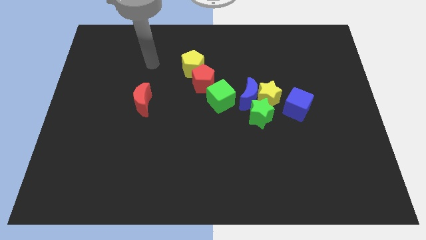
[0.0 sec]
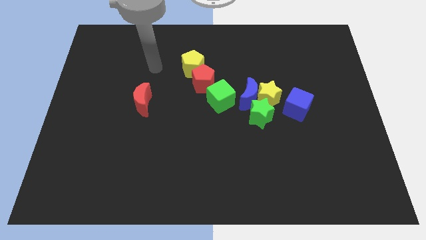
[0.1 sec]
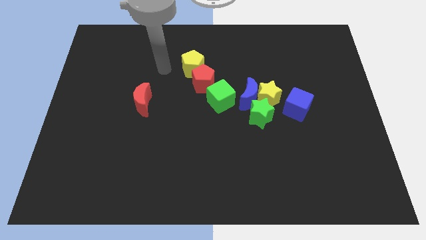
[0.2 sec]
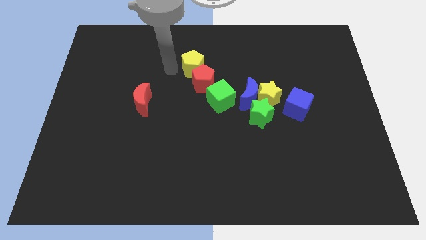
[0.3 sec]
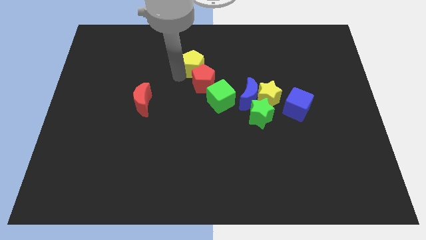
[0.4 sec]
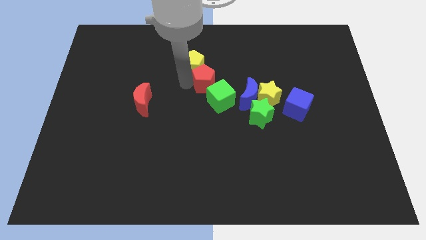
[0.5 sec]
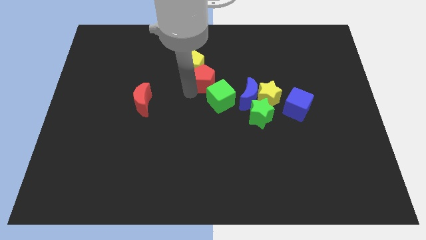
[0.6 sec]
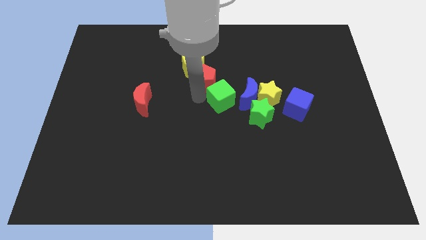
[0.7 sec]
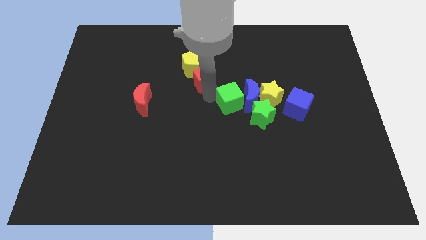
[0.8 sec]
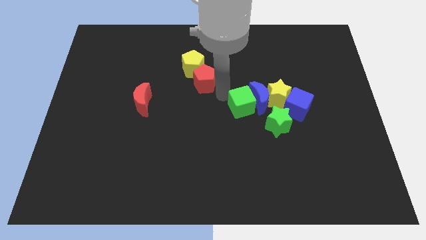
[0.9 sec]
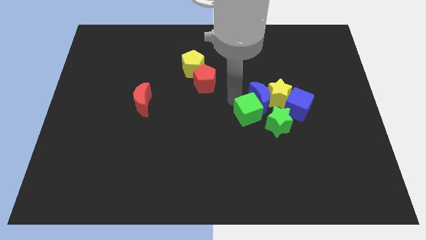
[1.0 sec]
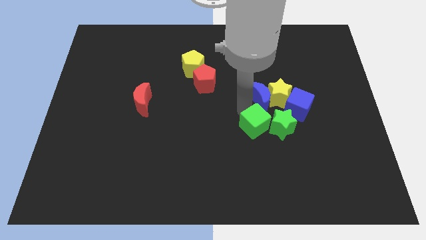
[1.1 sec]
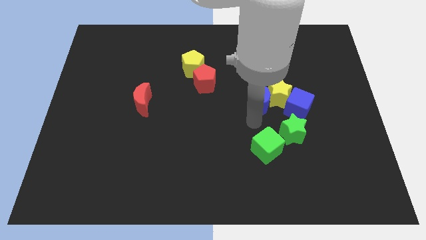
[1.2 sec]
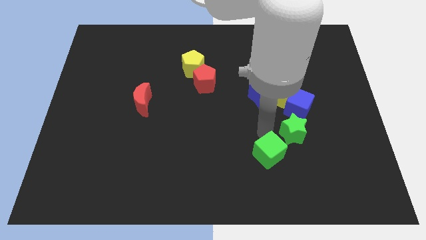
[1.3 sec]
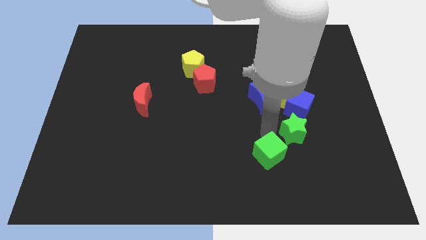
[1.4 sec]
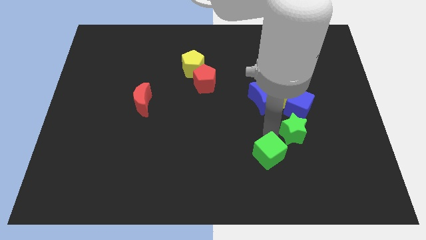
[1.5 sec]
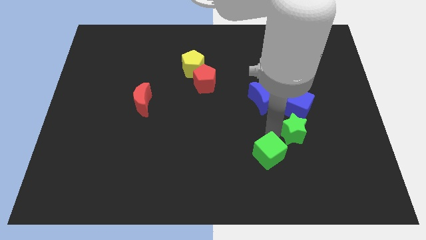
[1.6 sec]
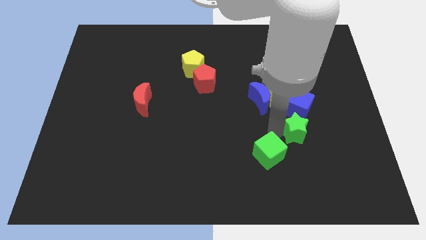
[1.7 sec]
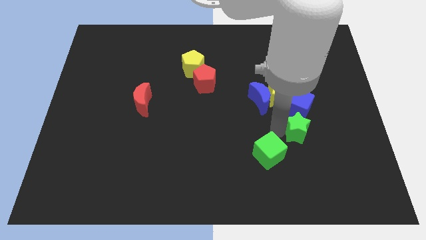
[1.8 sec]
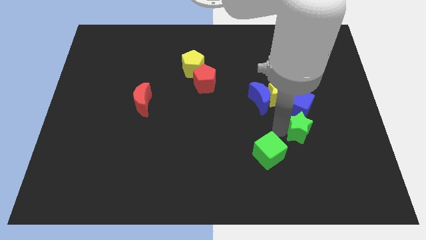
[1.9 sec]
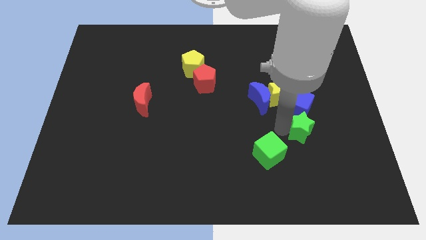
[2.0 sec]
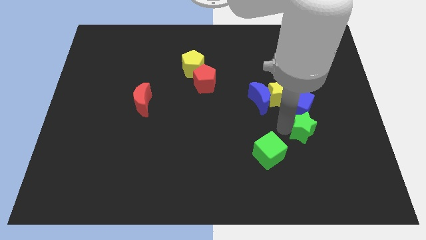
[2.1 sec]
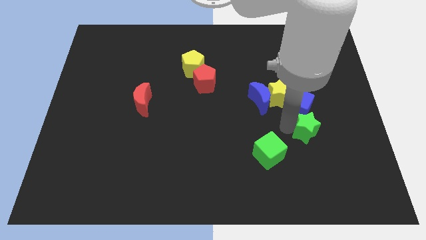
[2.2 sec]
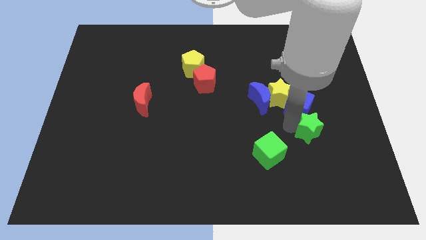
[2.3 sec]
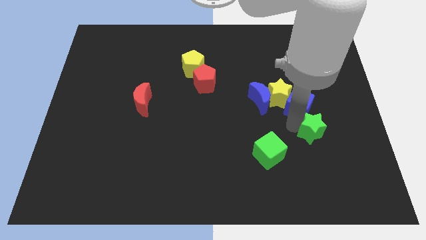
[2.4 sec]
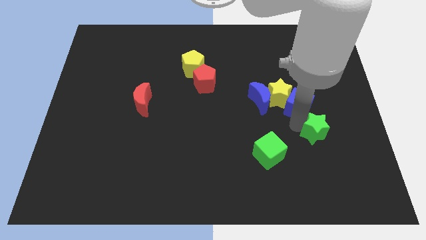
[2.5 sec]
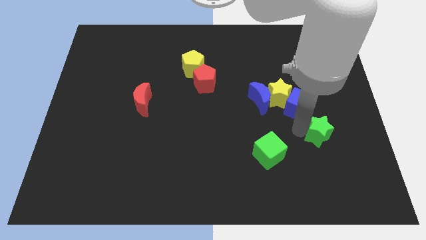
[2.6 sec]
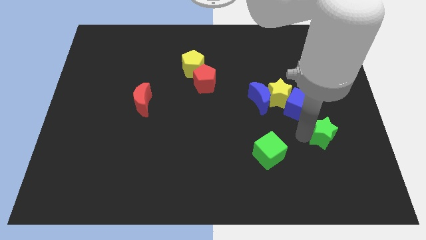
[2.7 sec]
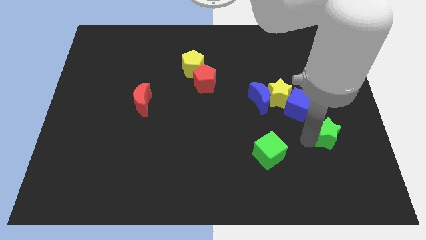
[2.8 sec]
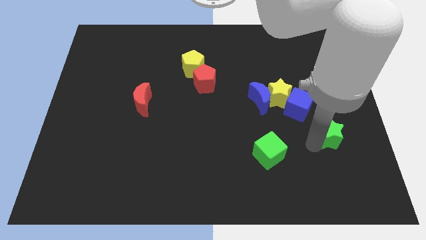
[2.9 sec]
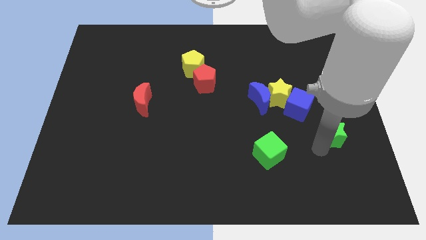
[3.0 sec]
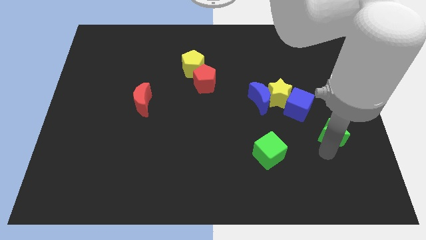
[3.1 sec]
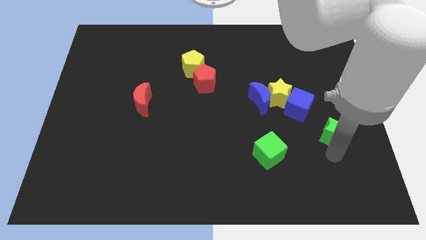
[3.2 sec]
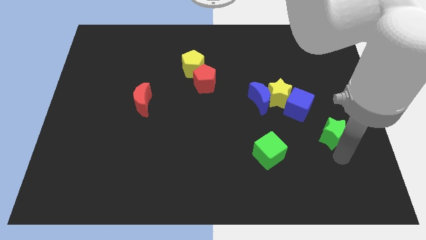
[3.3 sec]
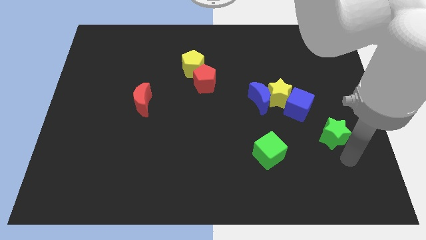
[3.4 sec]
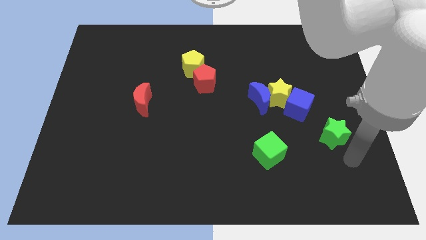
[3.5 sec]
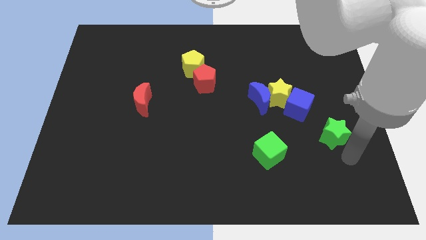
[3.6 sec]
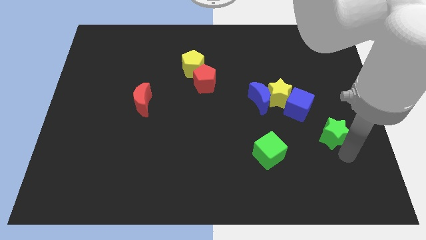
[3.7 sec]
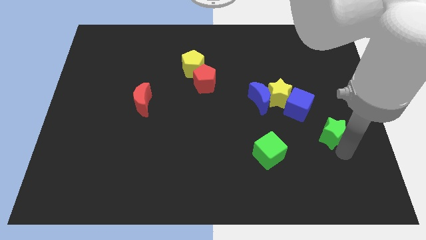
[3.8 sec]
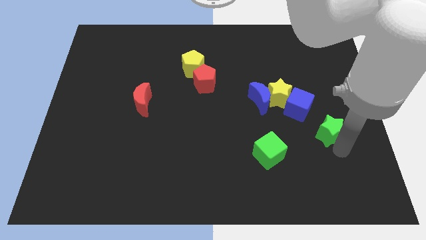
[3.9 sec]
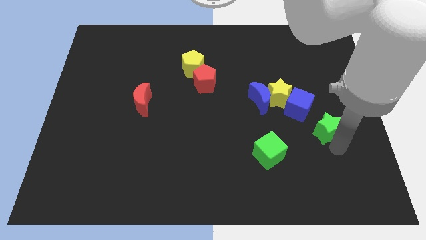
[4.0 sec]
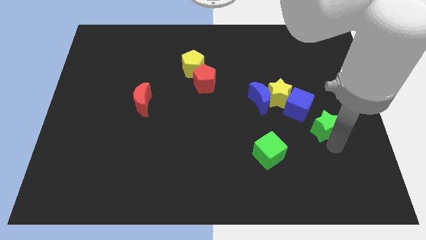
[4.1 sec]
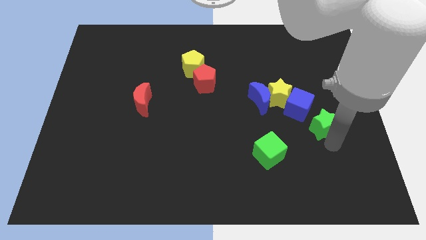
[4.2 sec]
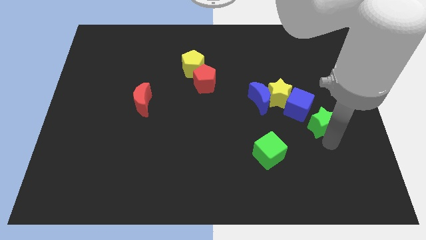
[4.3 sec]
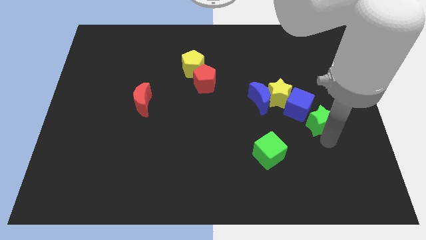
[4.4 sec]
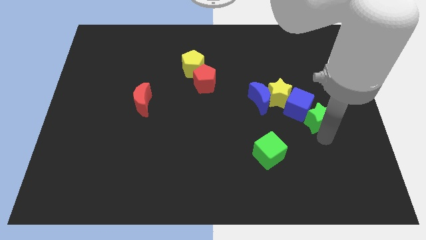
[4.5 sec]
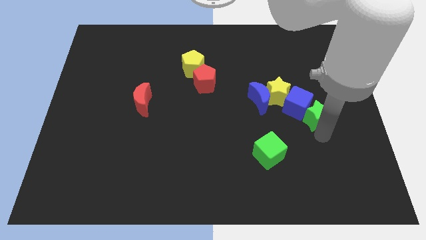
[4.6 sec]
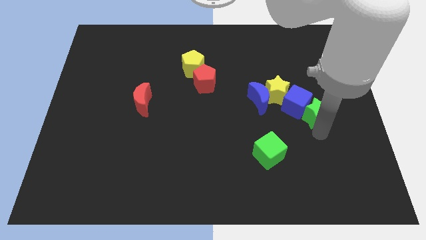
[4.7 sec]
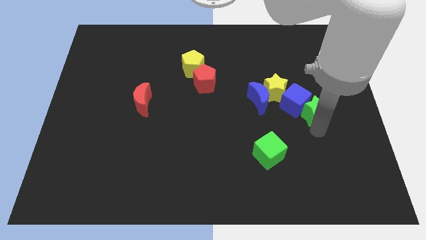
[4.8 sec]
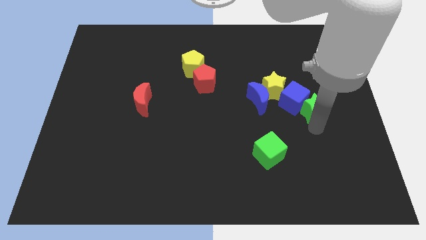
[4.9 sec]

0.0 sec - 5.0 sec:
slightly slide the green star diagonally up and to the right

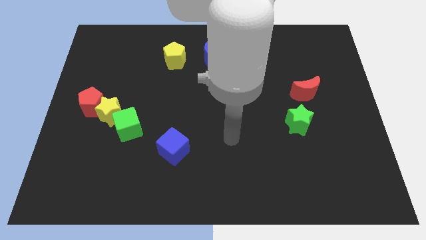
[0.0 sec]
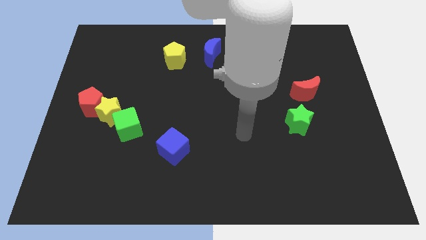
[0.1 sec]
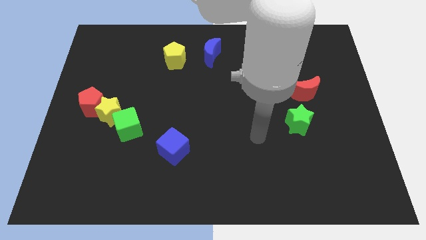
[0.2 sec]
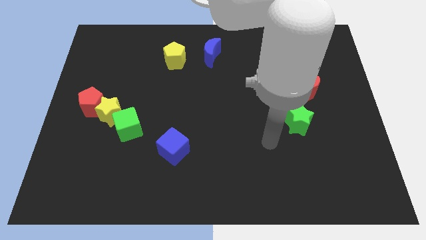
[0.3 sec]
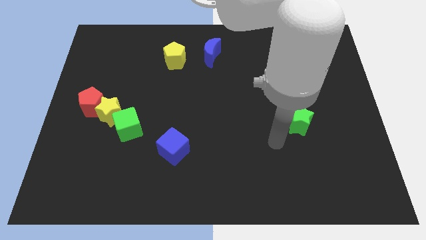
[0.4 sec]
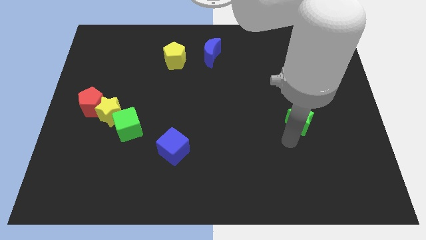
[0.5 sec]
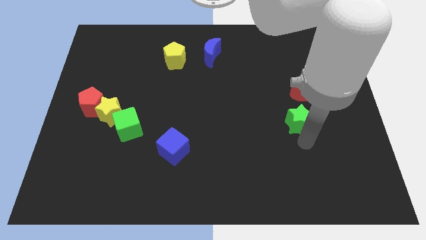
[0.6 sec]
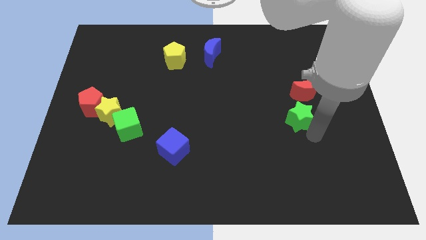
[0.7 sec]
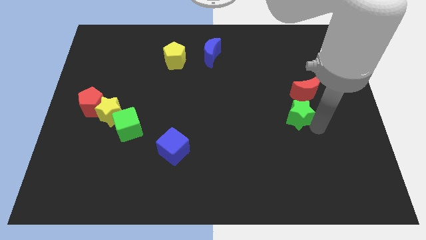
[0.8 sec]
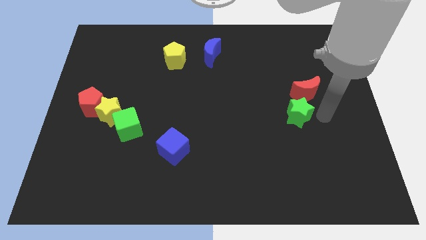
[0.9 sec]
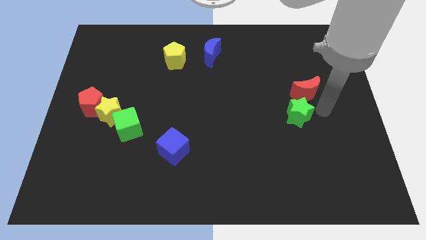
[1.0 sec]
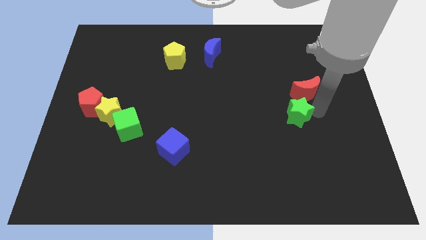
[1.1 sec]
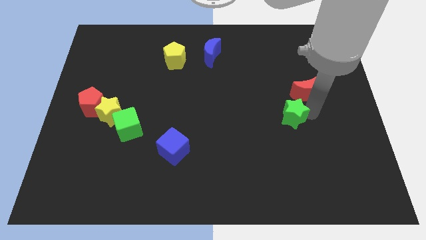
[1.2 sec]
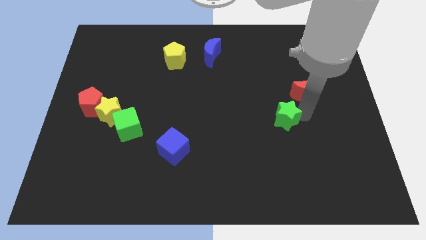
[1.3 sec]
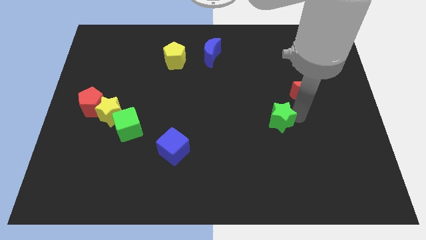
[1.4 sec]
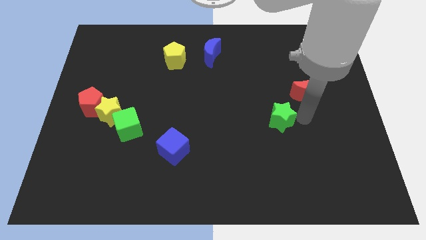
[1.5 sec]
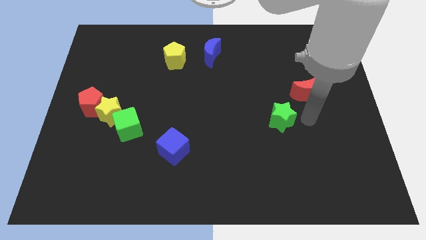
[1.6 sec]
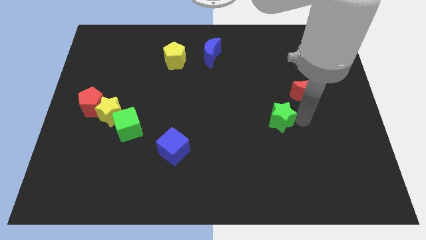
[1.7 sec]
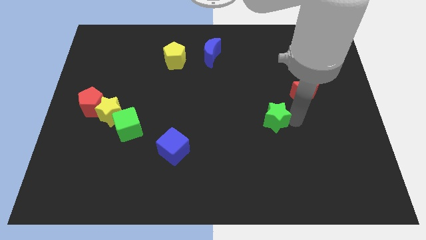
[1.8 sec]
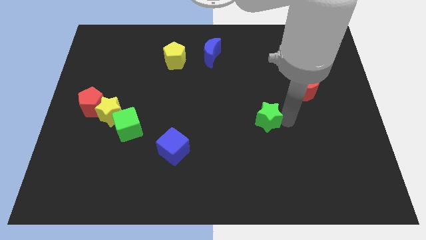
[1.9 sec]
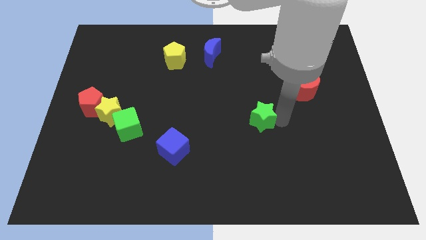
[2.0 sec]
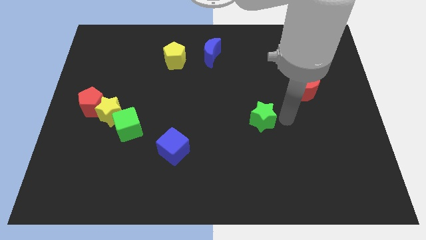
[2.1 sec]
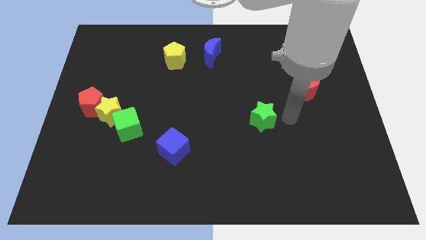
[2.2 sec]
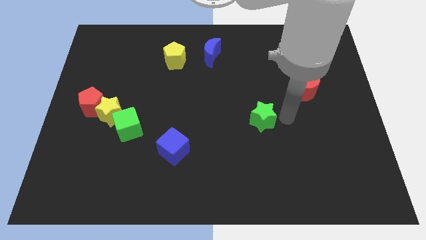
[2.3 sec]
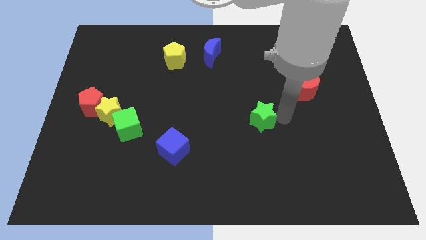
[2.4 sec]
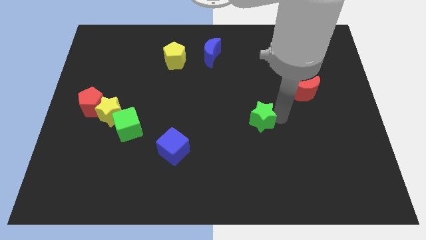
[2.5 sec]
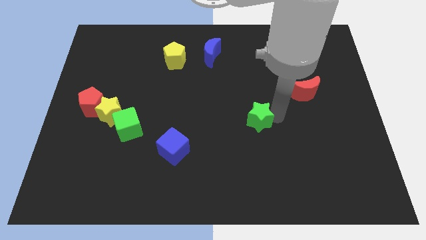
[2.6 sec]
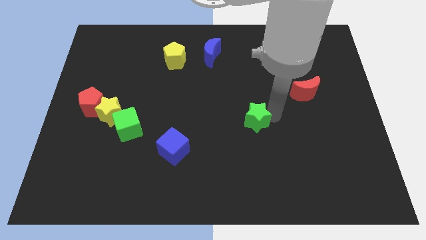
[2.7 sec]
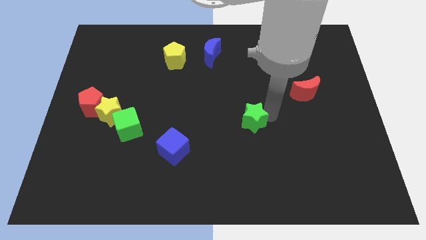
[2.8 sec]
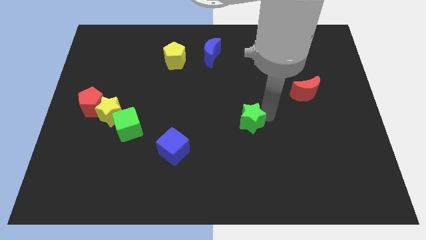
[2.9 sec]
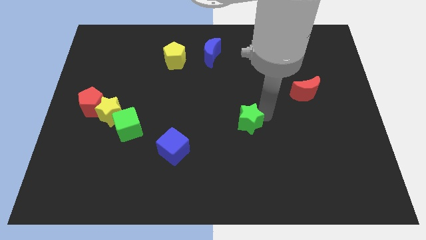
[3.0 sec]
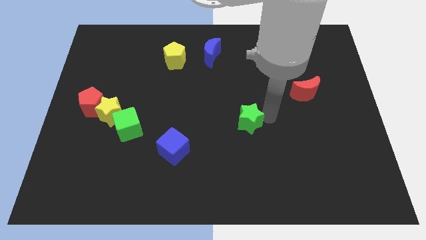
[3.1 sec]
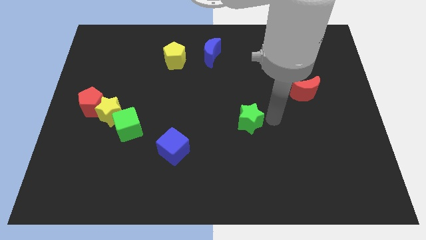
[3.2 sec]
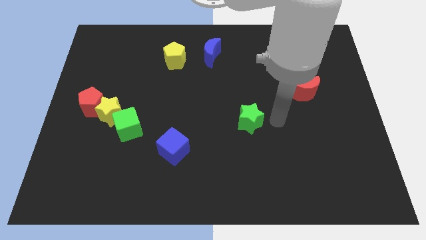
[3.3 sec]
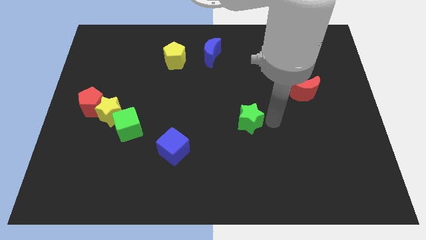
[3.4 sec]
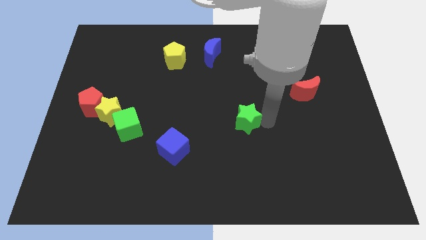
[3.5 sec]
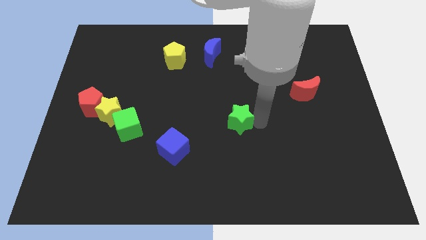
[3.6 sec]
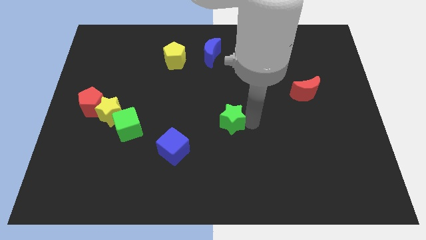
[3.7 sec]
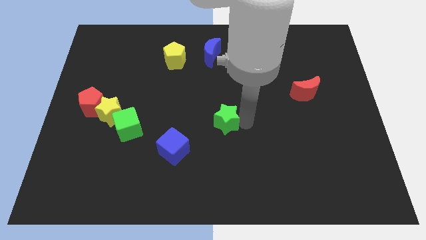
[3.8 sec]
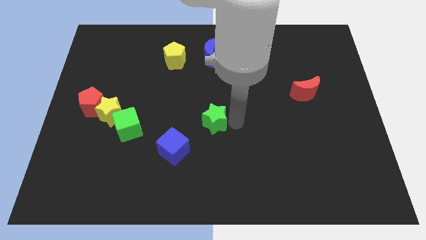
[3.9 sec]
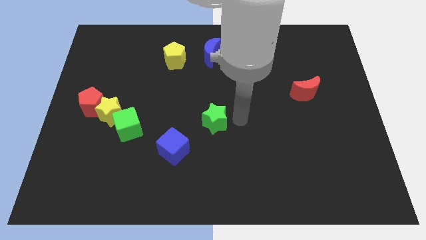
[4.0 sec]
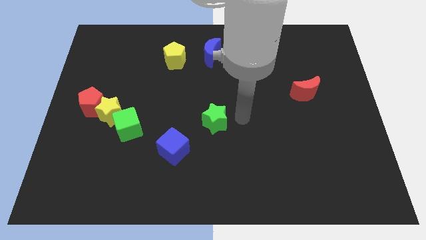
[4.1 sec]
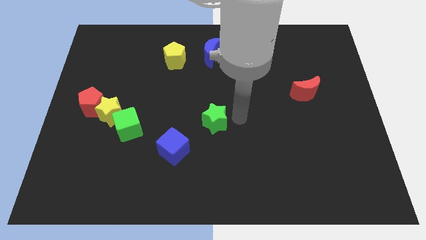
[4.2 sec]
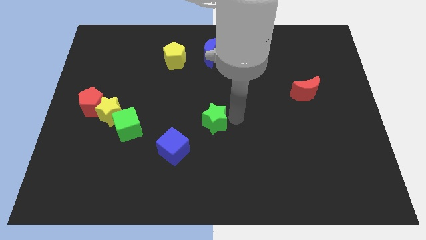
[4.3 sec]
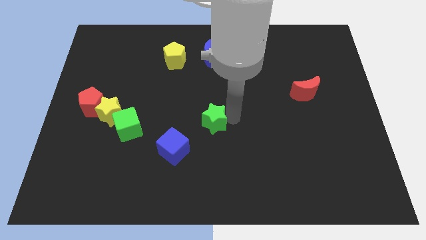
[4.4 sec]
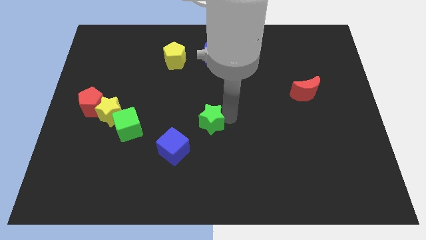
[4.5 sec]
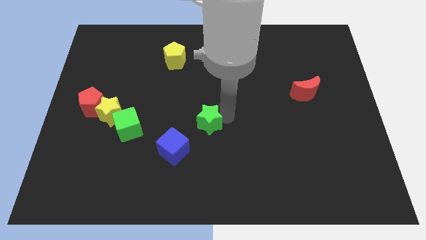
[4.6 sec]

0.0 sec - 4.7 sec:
move the green star to the left
